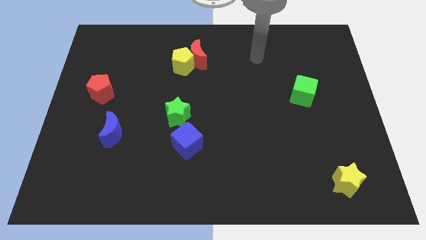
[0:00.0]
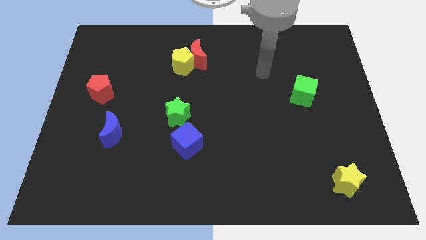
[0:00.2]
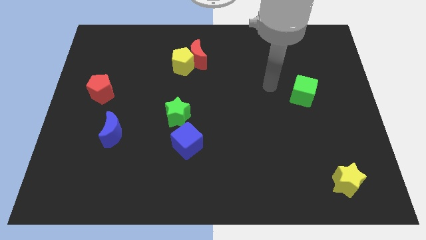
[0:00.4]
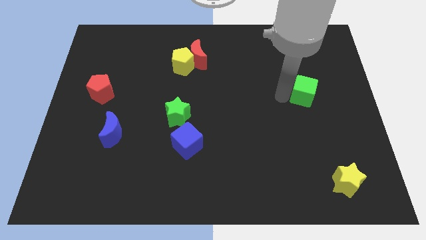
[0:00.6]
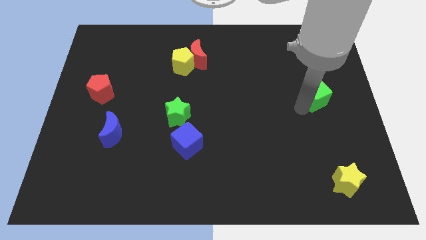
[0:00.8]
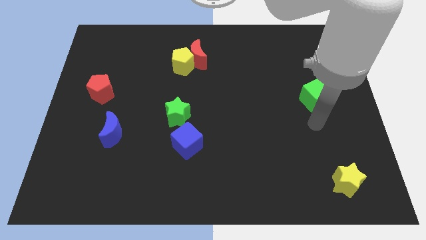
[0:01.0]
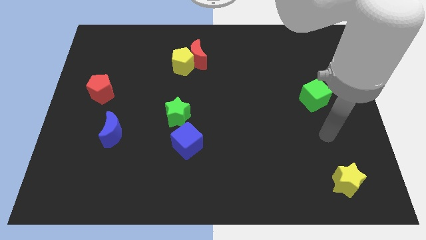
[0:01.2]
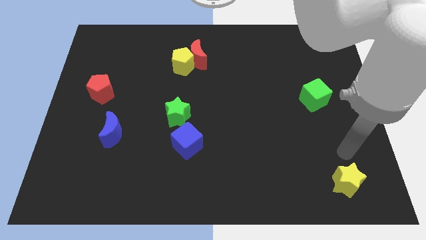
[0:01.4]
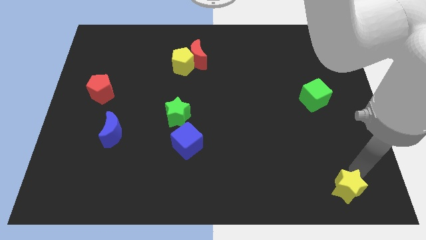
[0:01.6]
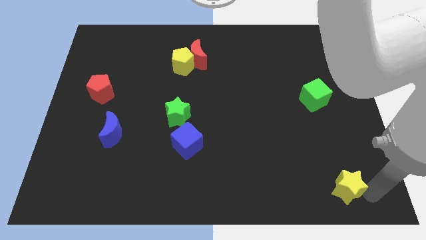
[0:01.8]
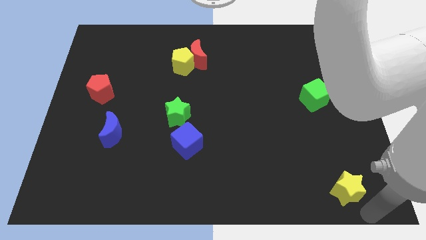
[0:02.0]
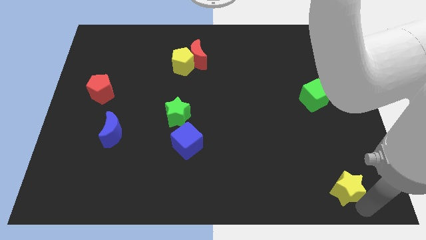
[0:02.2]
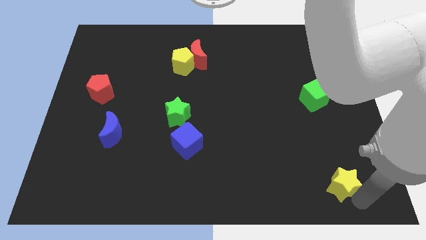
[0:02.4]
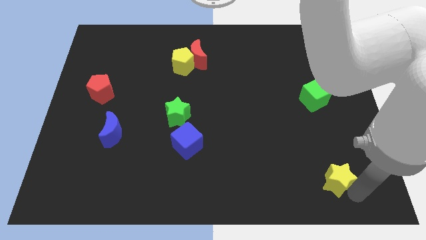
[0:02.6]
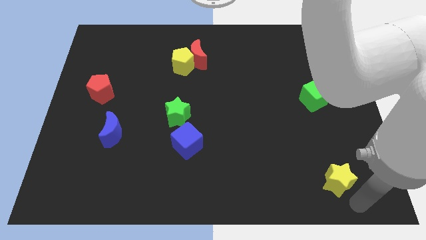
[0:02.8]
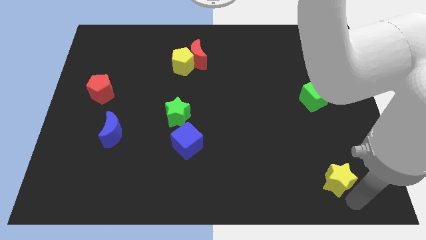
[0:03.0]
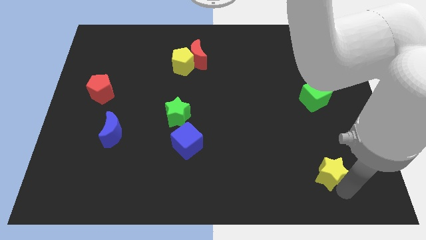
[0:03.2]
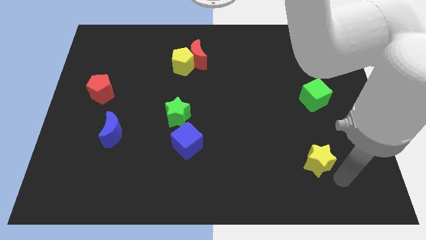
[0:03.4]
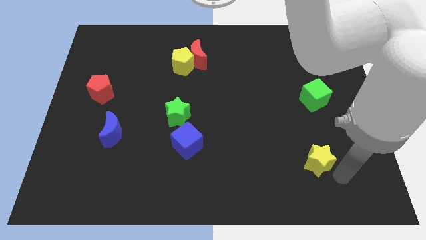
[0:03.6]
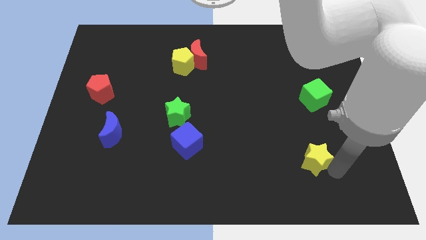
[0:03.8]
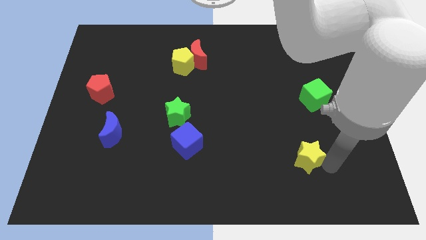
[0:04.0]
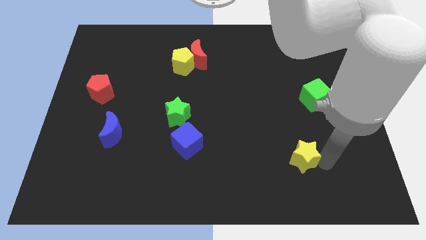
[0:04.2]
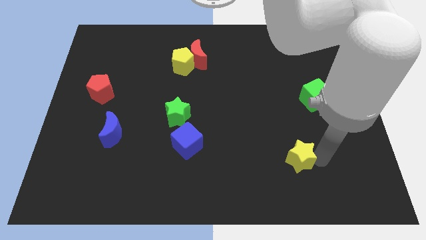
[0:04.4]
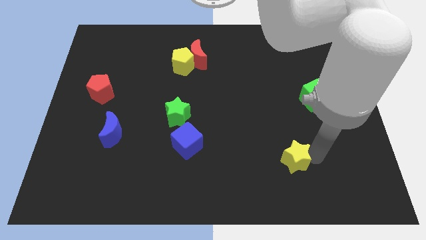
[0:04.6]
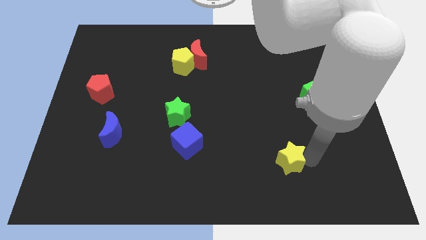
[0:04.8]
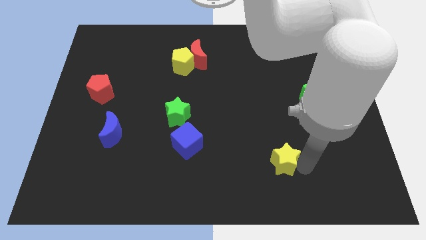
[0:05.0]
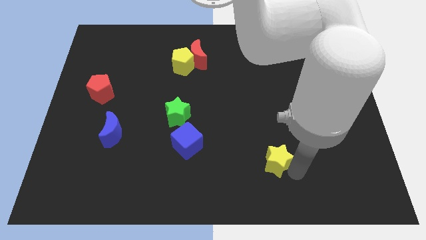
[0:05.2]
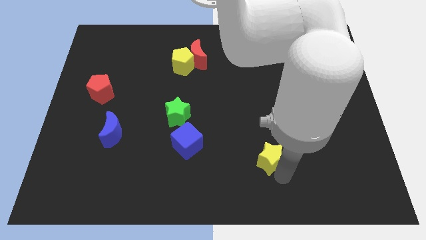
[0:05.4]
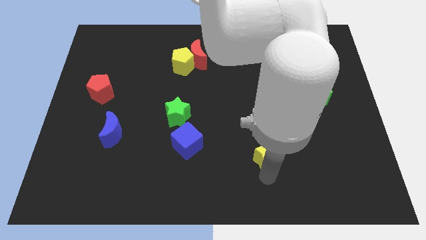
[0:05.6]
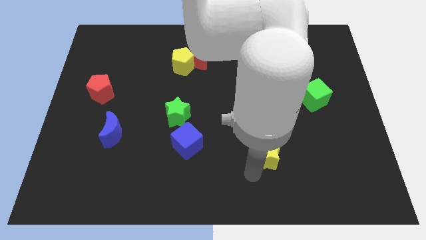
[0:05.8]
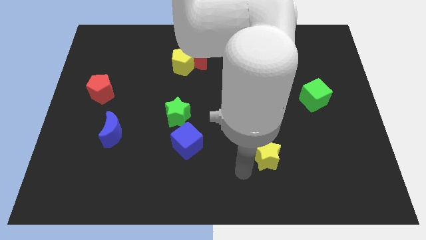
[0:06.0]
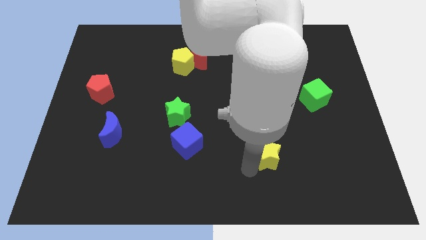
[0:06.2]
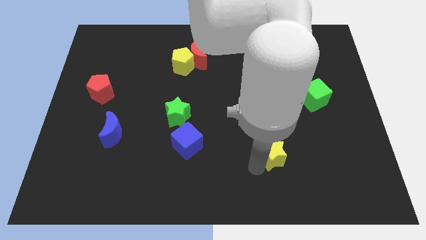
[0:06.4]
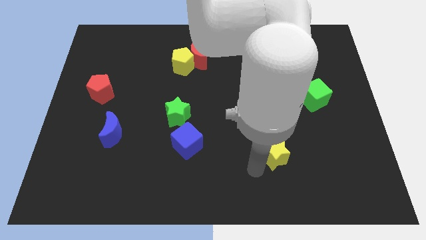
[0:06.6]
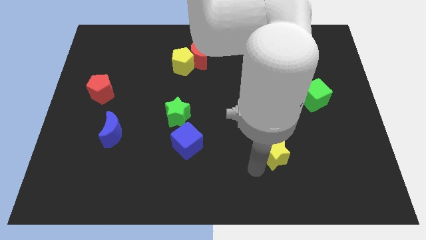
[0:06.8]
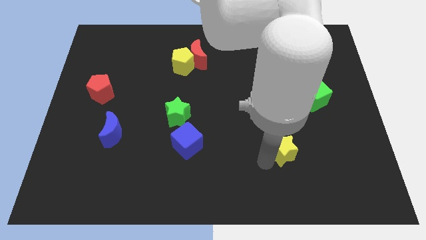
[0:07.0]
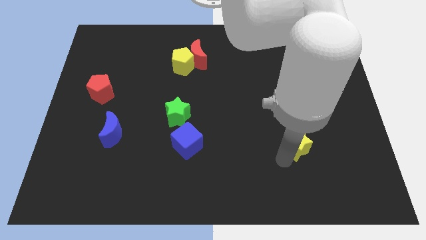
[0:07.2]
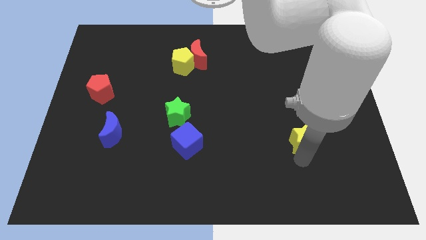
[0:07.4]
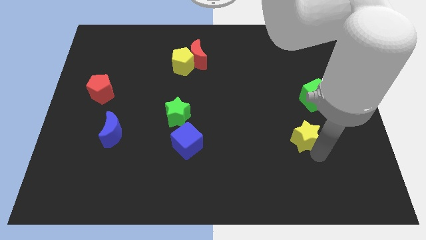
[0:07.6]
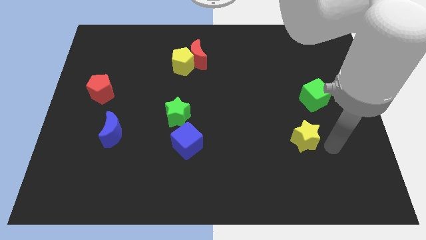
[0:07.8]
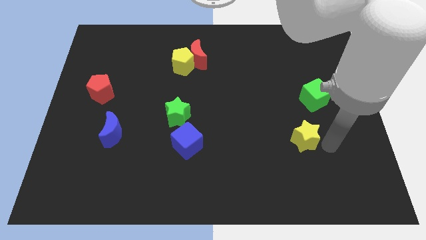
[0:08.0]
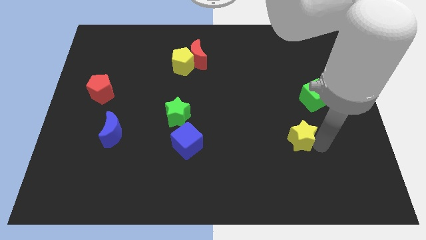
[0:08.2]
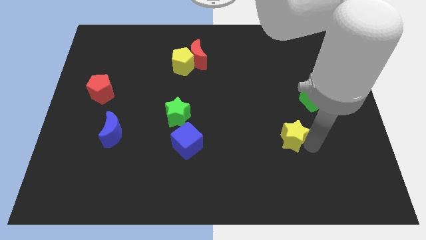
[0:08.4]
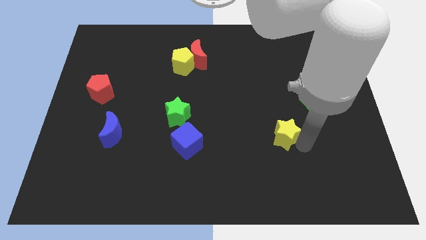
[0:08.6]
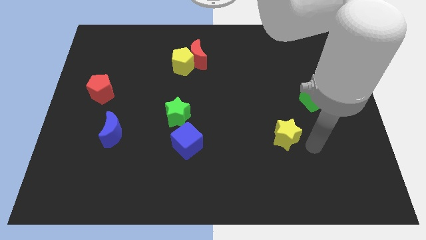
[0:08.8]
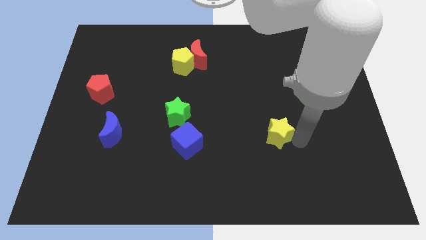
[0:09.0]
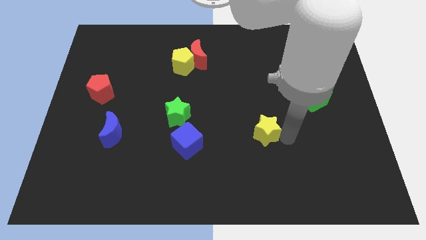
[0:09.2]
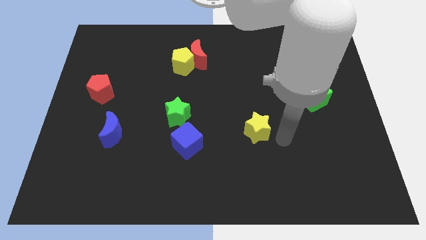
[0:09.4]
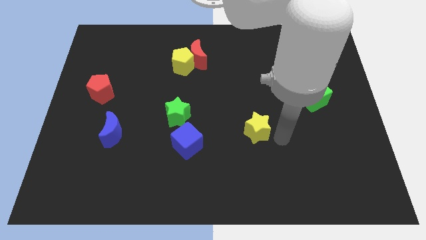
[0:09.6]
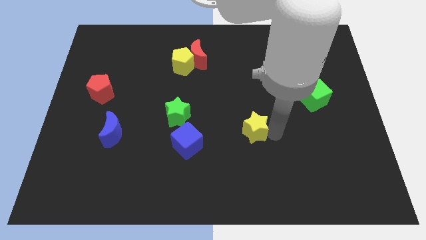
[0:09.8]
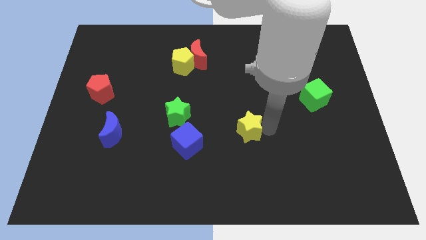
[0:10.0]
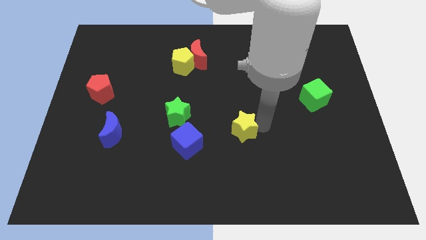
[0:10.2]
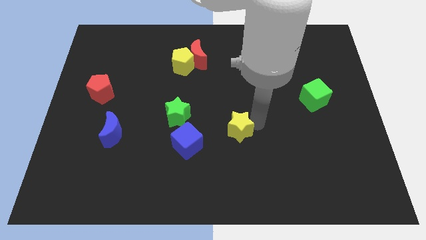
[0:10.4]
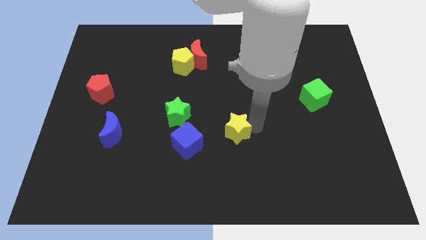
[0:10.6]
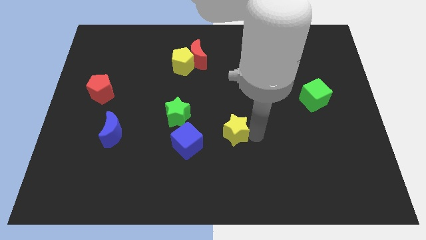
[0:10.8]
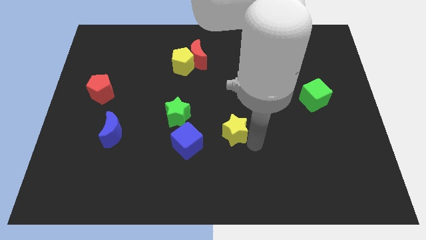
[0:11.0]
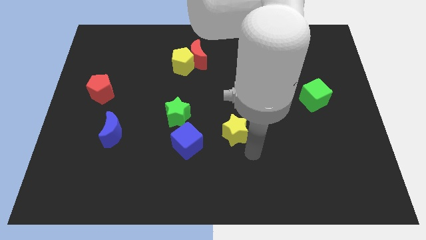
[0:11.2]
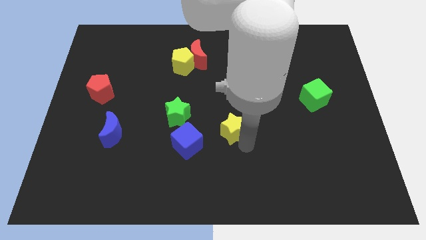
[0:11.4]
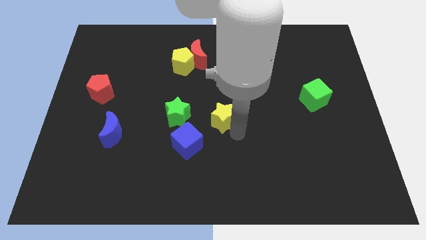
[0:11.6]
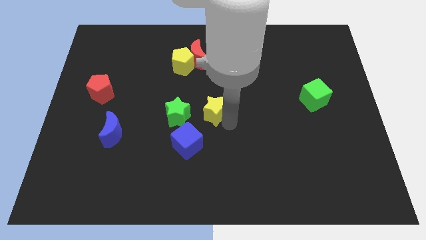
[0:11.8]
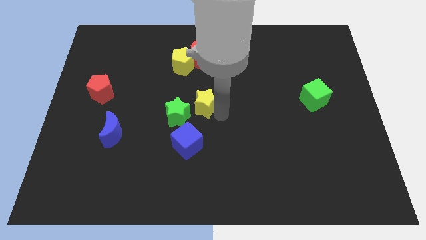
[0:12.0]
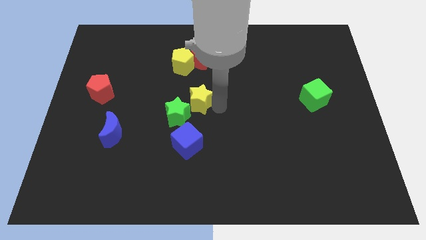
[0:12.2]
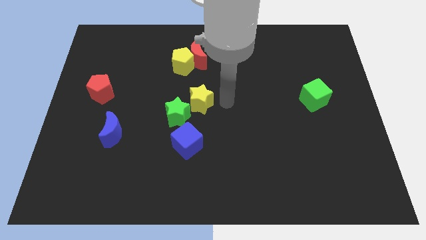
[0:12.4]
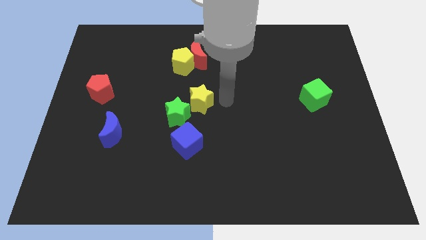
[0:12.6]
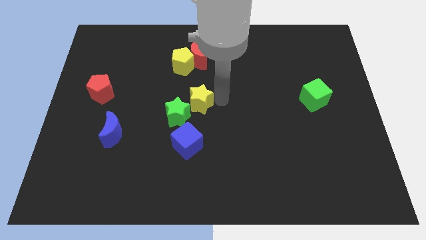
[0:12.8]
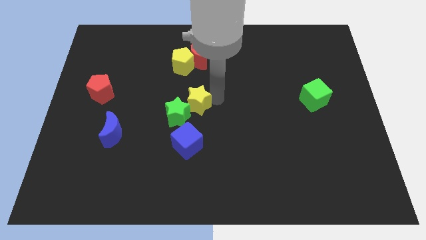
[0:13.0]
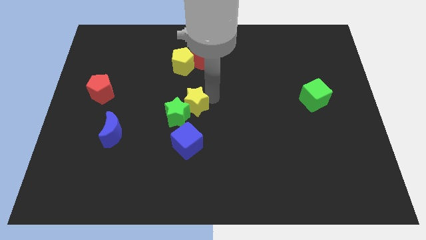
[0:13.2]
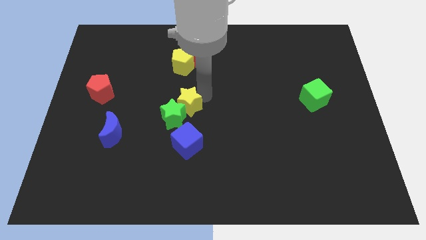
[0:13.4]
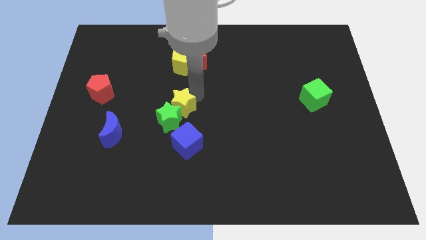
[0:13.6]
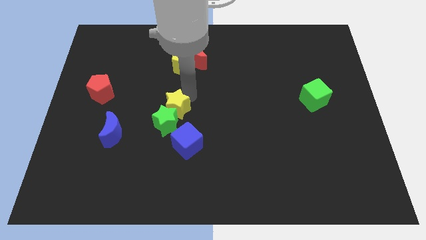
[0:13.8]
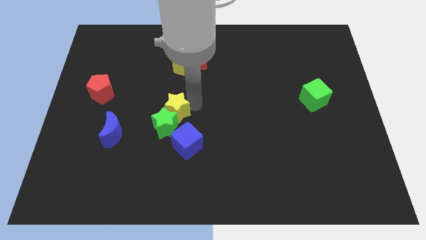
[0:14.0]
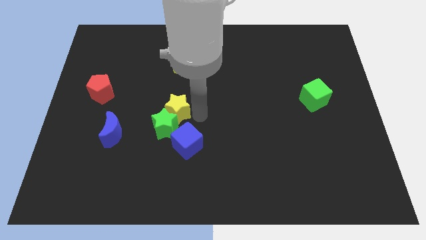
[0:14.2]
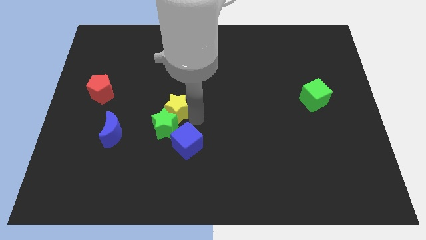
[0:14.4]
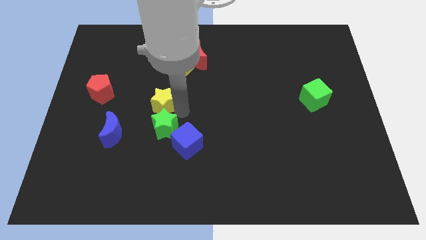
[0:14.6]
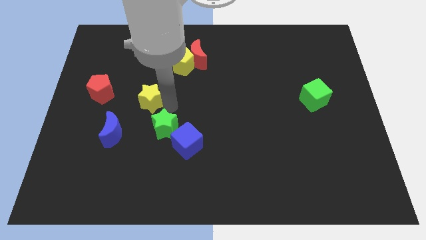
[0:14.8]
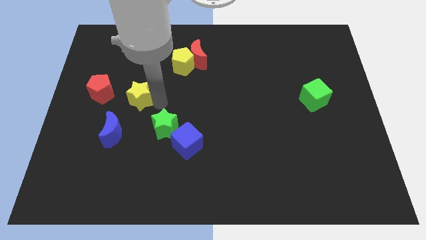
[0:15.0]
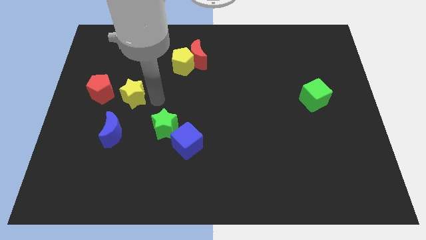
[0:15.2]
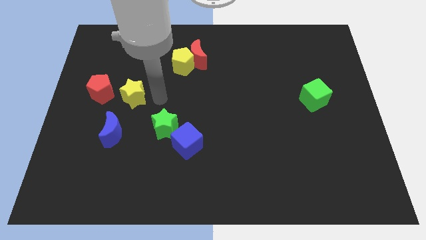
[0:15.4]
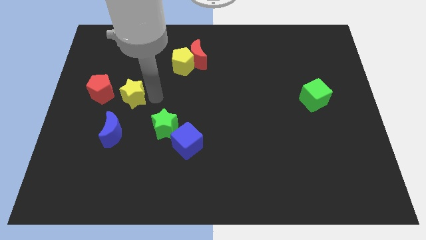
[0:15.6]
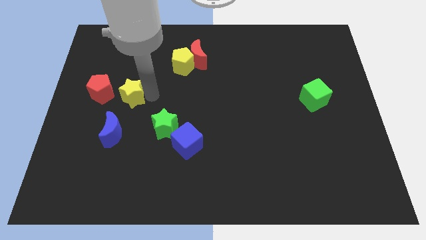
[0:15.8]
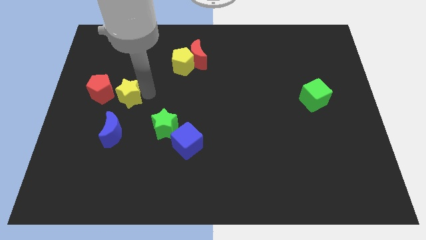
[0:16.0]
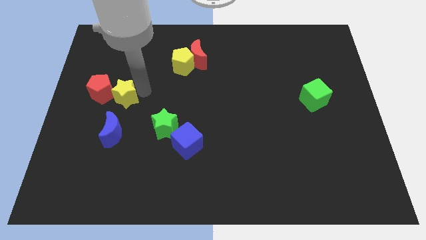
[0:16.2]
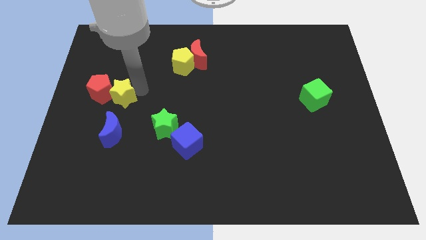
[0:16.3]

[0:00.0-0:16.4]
put the yellow star to the red pentagon
